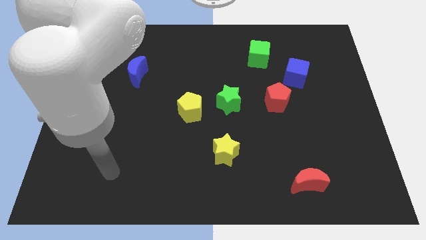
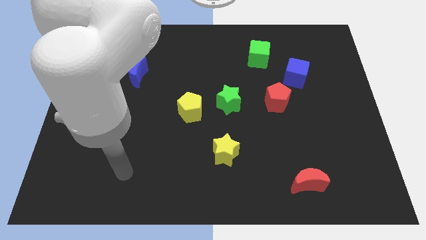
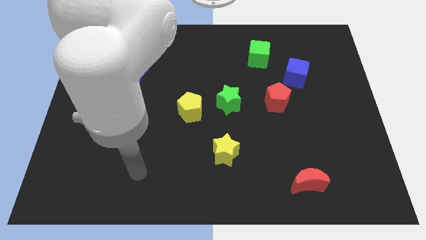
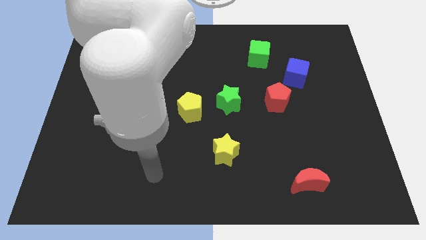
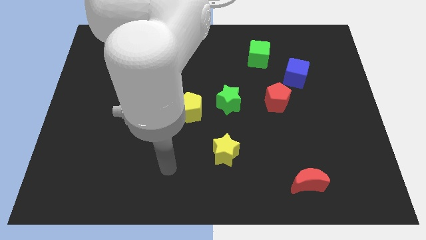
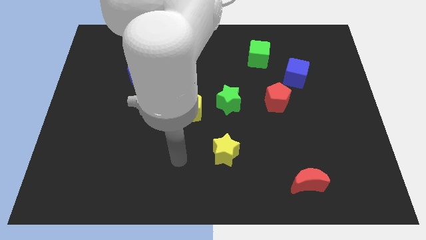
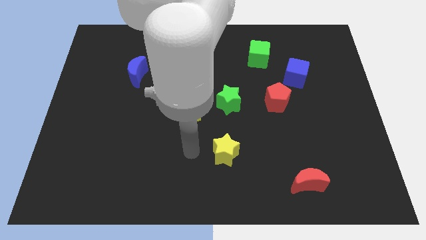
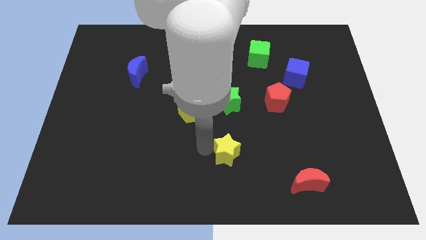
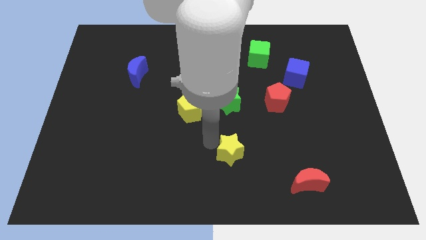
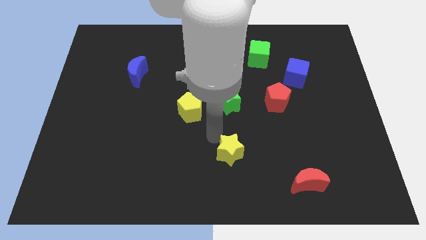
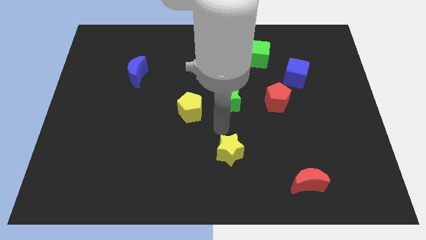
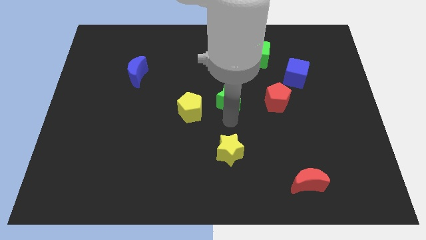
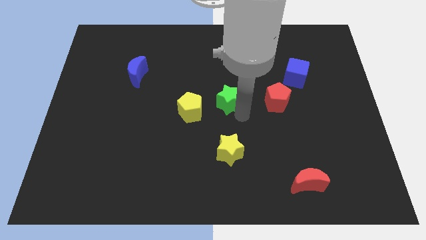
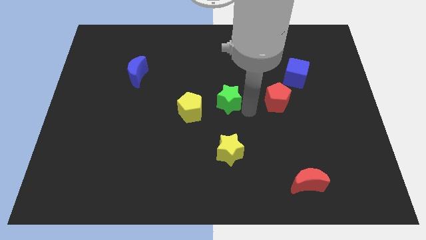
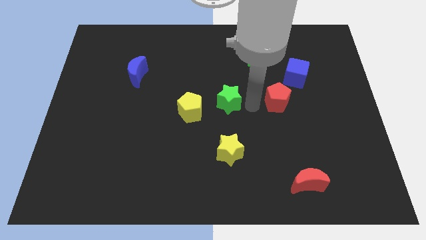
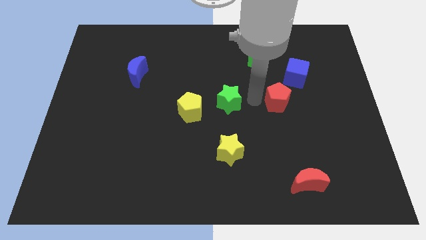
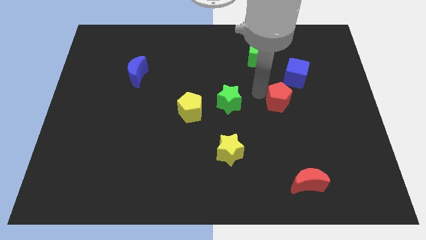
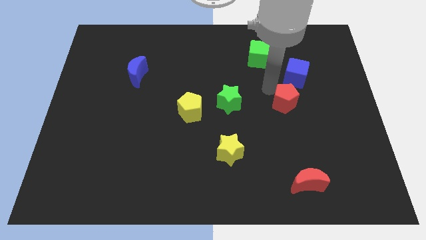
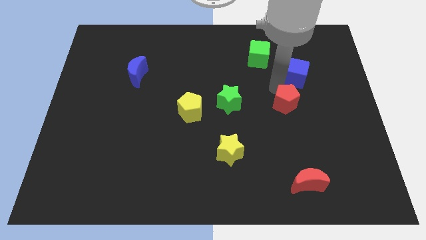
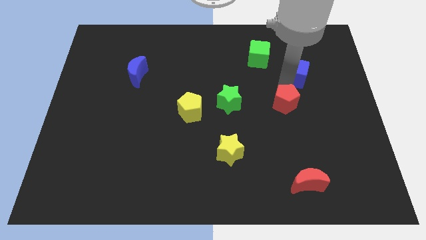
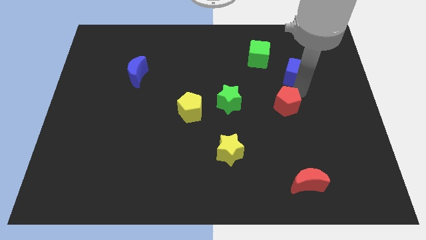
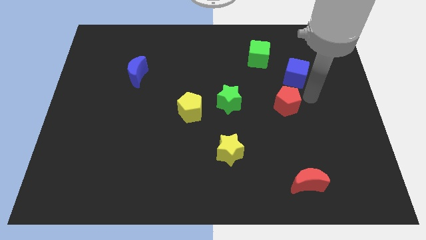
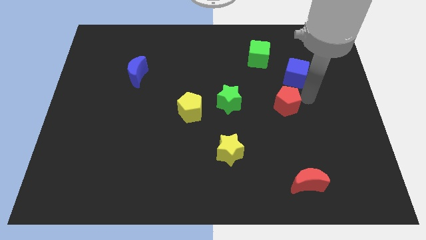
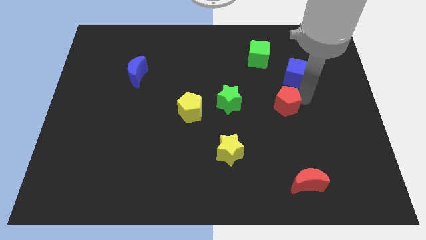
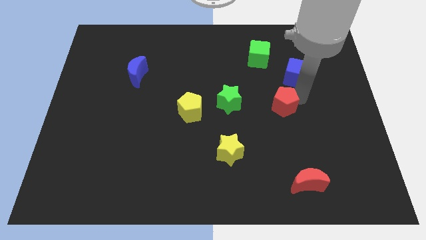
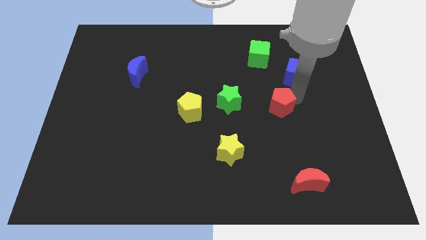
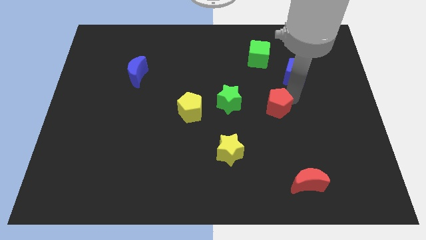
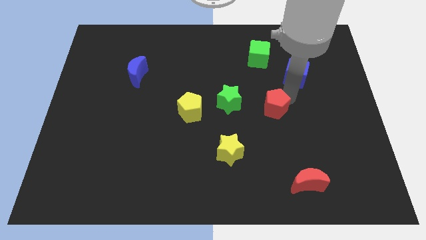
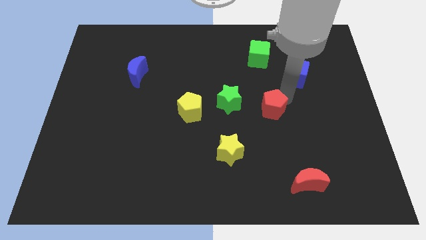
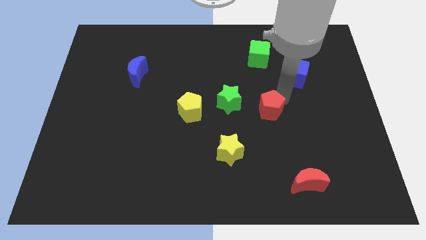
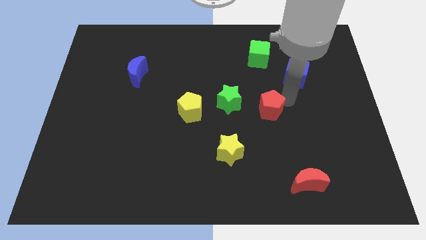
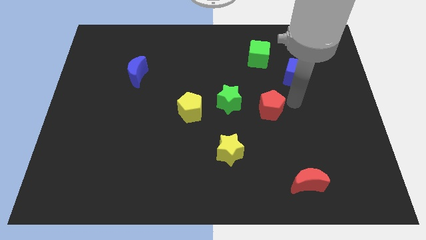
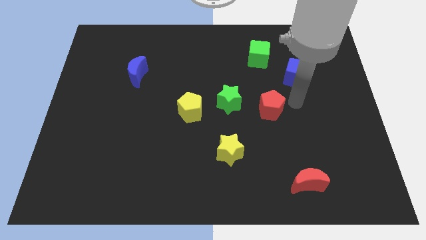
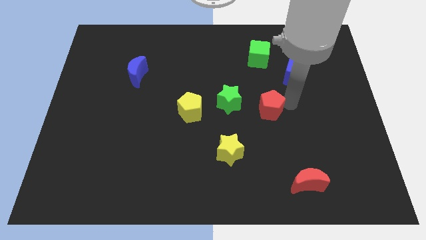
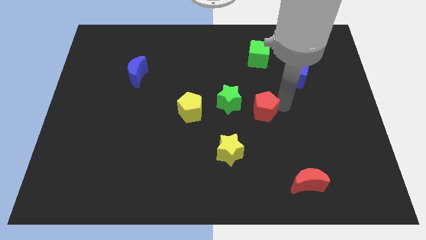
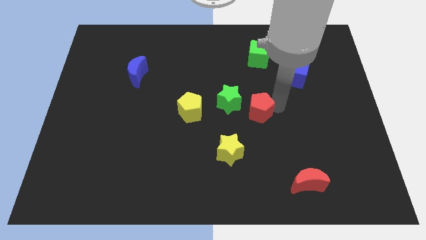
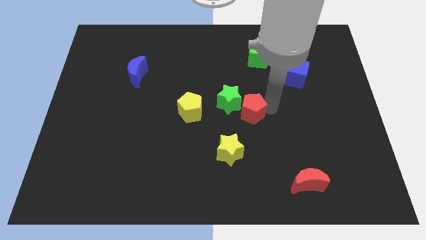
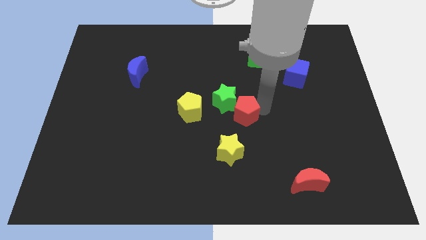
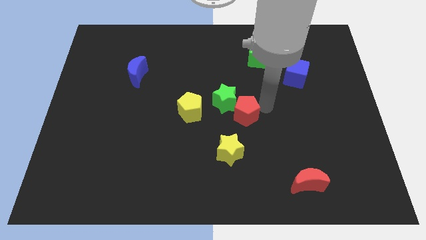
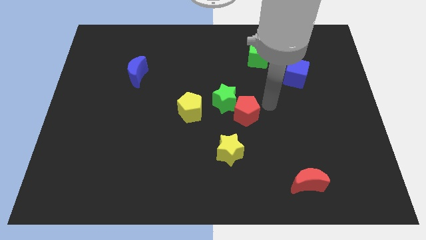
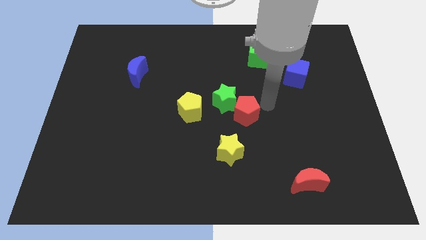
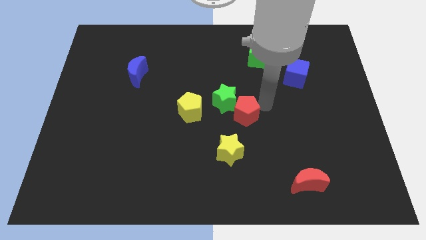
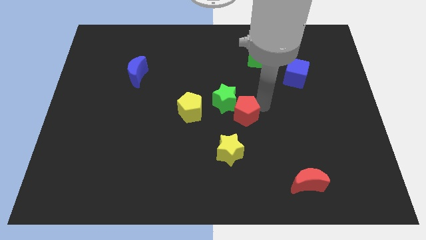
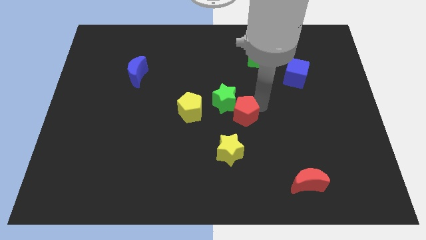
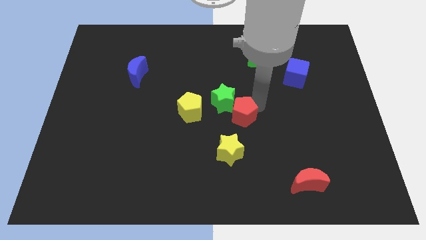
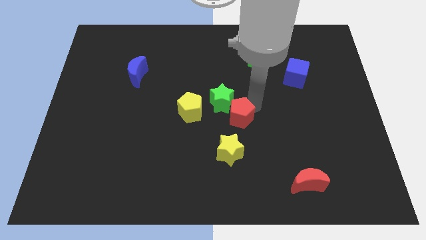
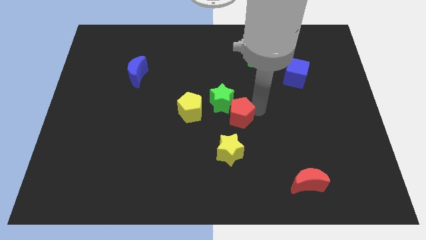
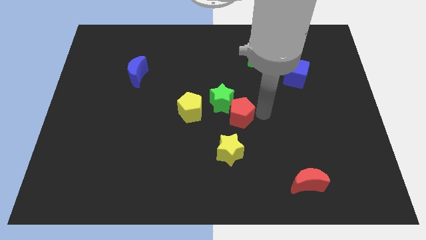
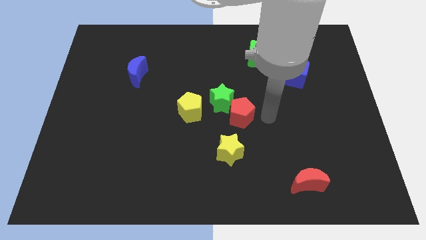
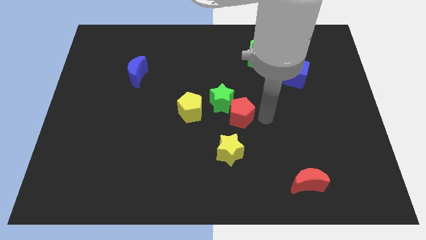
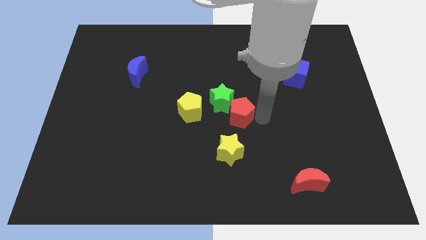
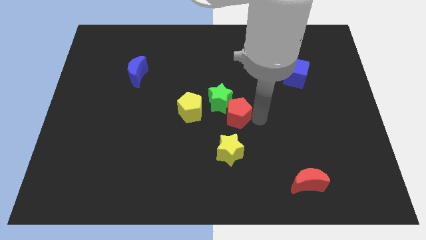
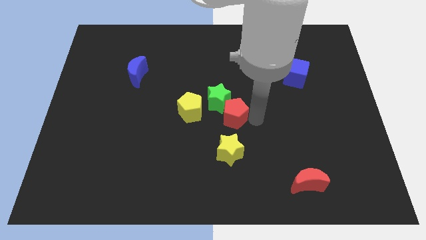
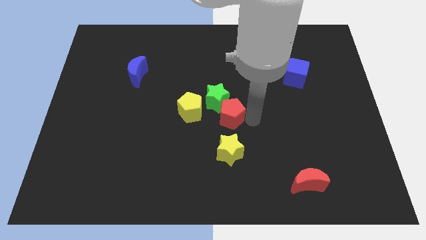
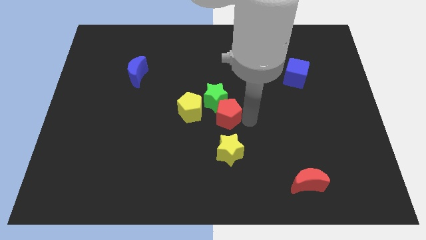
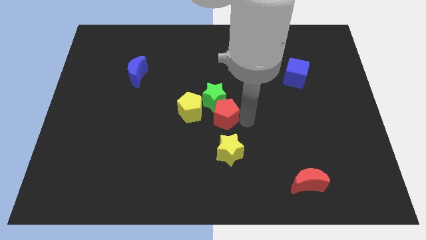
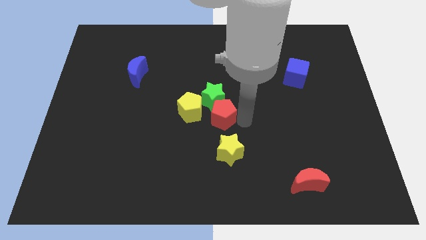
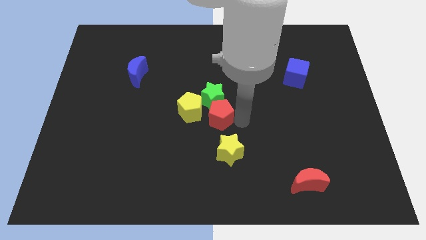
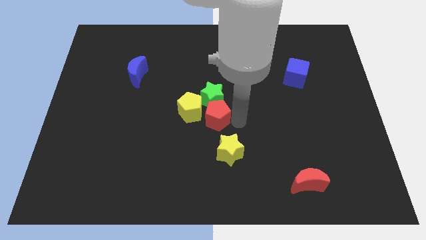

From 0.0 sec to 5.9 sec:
slide the red pentagon towards the yellow pentagon

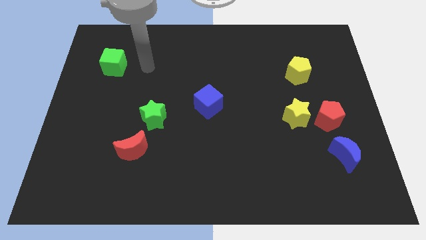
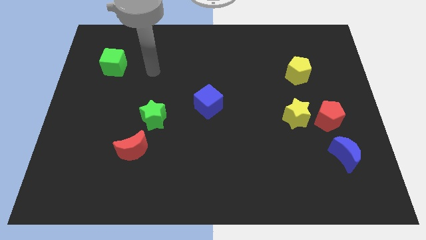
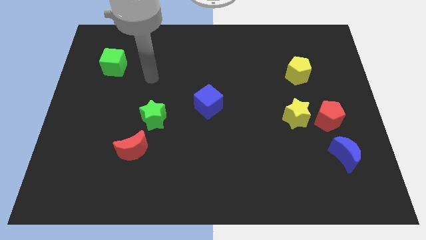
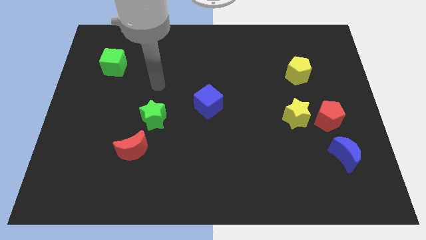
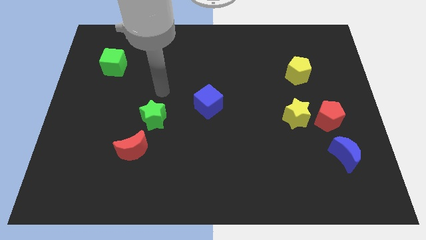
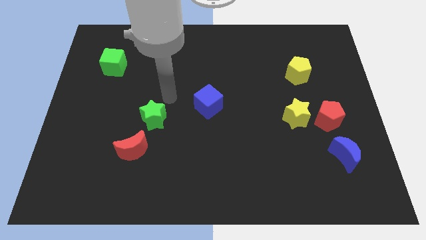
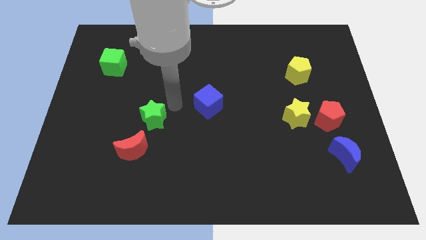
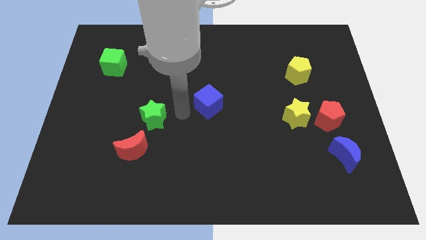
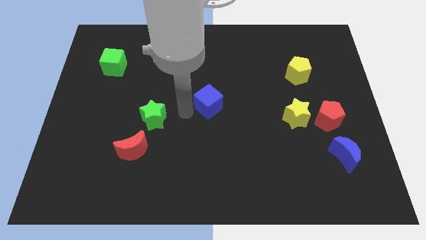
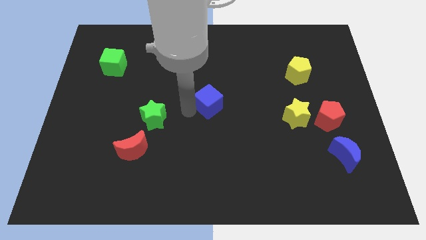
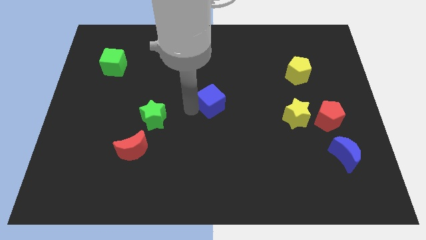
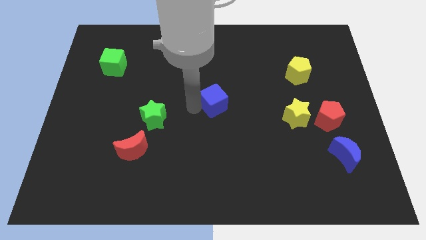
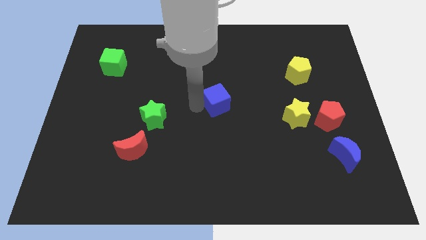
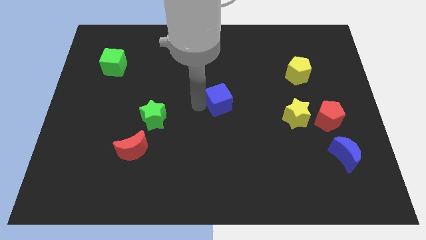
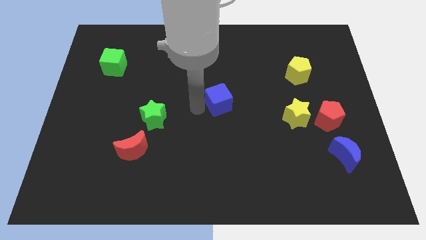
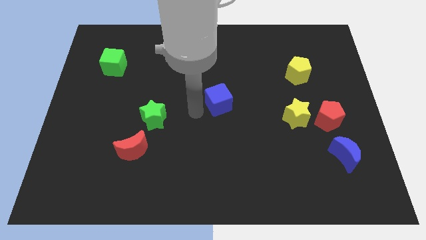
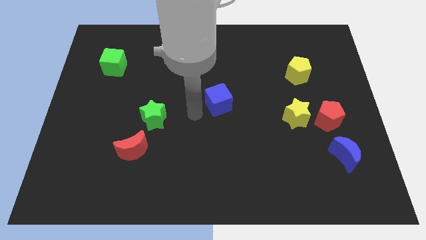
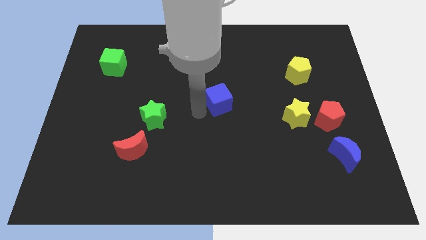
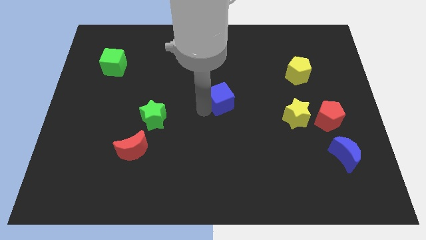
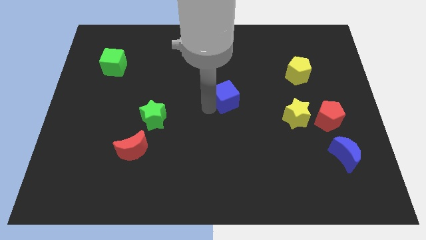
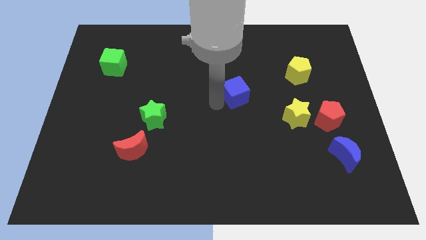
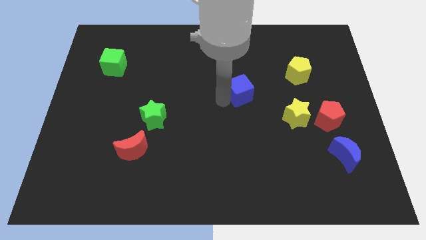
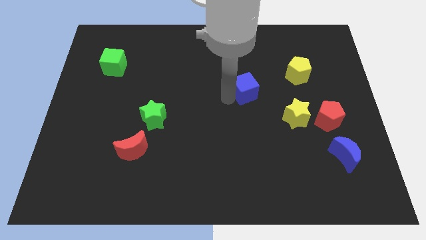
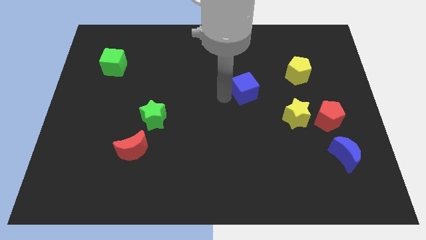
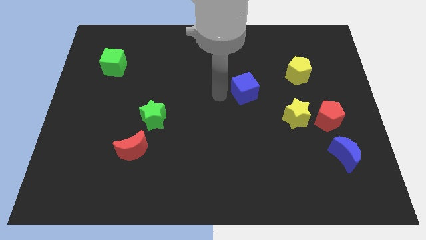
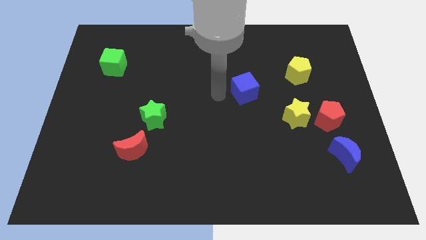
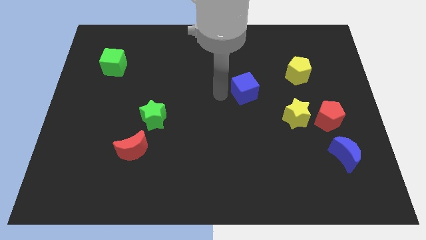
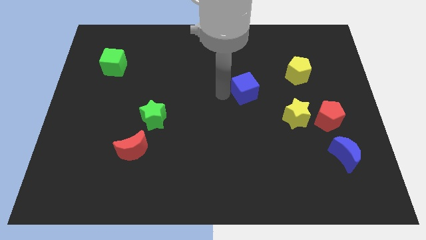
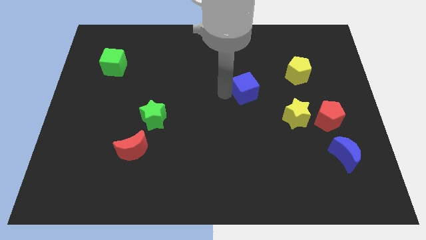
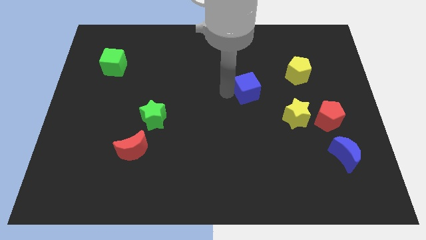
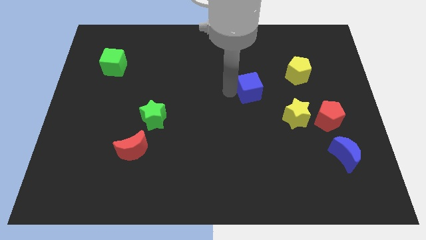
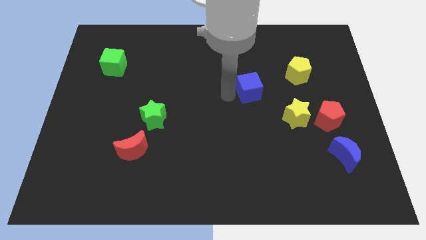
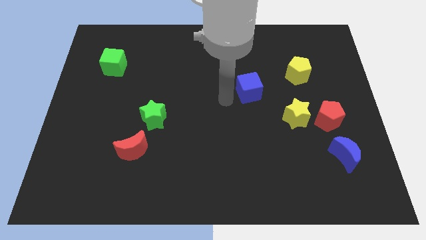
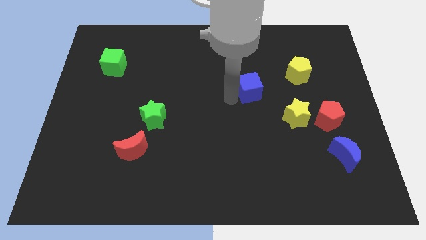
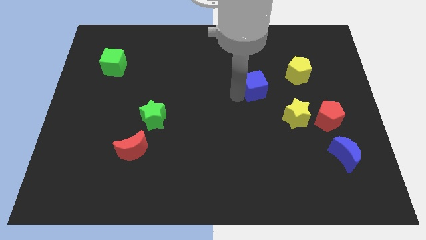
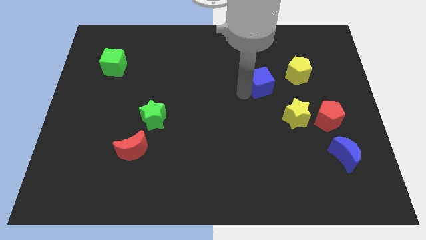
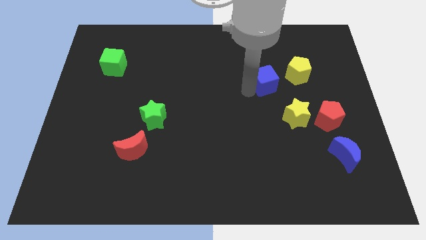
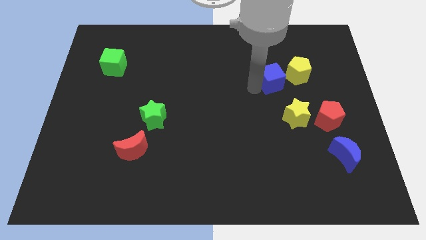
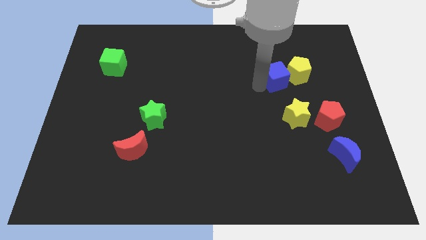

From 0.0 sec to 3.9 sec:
push the blue cube next to the yellow pentagon
